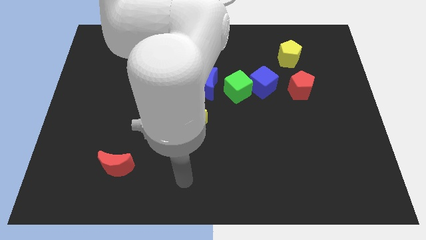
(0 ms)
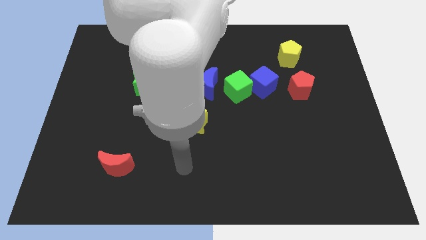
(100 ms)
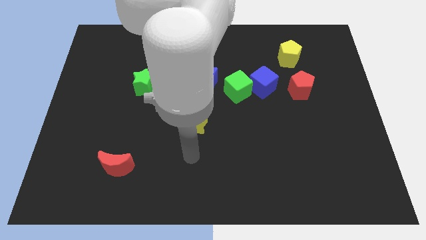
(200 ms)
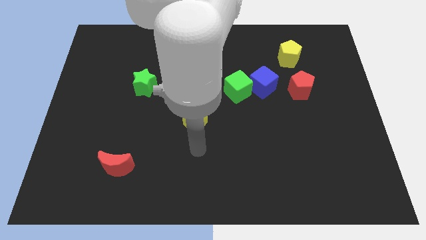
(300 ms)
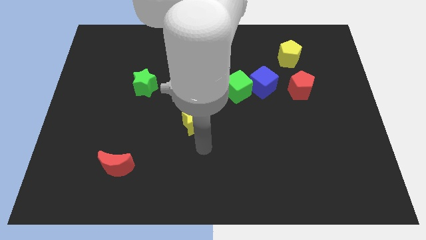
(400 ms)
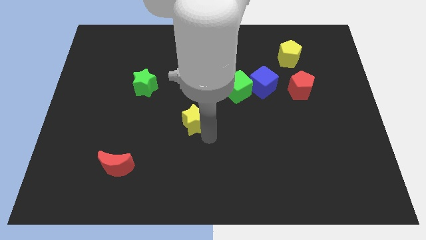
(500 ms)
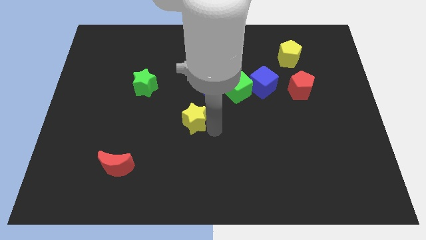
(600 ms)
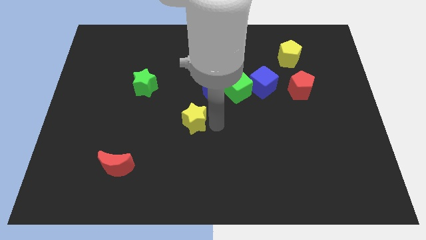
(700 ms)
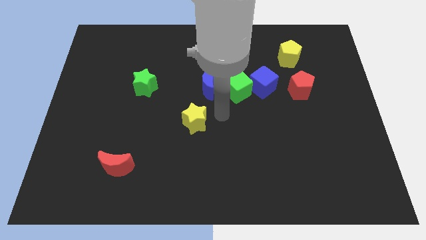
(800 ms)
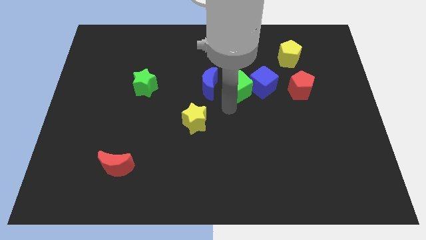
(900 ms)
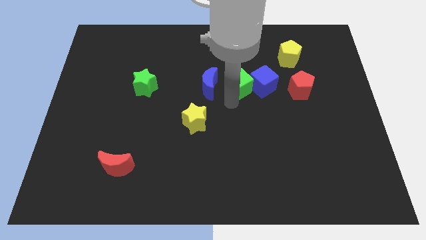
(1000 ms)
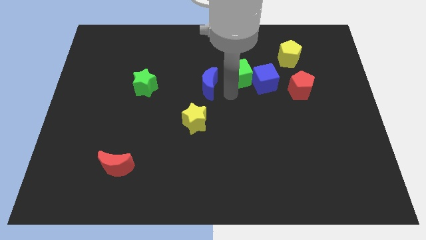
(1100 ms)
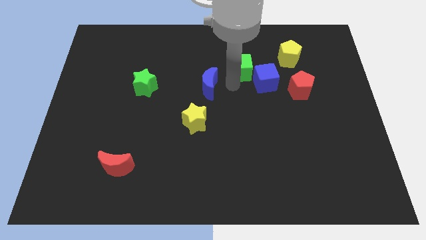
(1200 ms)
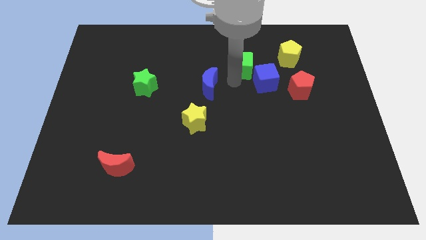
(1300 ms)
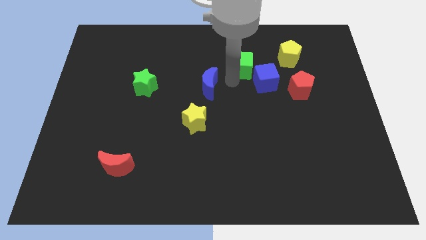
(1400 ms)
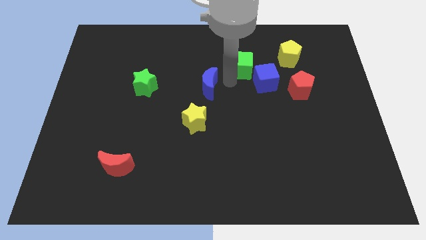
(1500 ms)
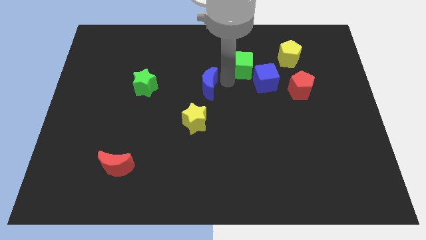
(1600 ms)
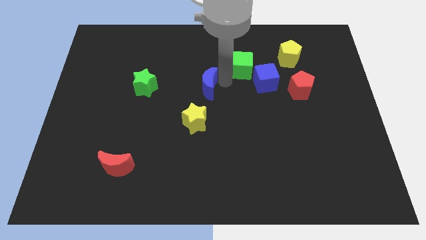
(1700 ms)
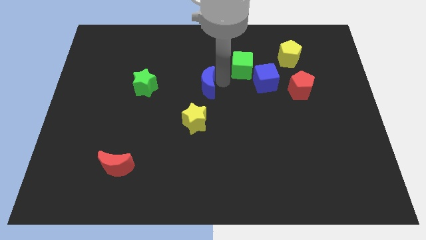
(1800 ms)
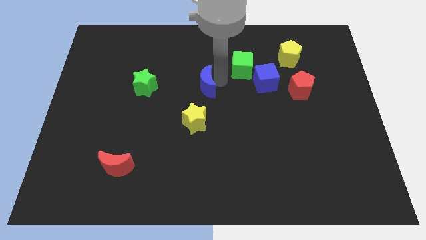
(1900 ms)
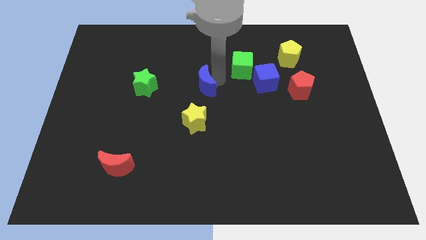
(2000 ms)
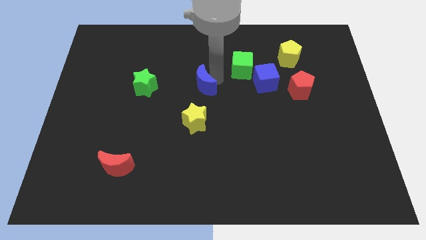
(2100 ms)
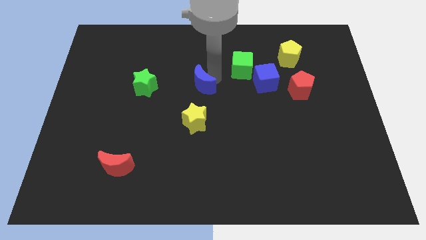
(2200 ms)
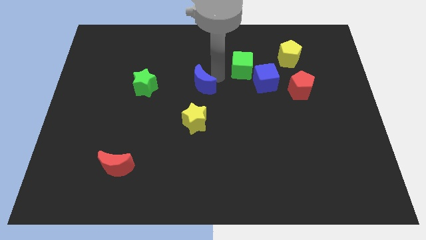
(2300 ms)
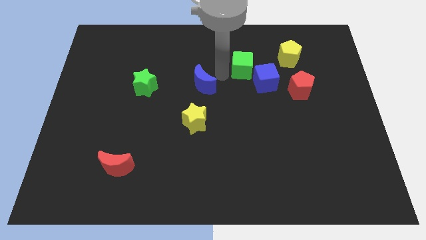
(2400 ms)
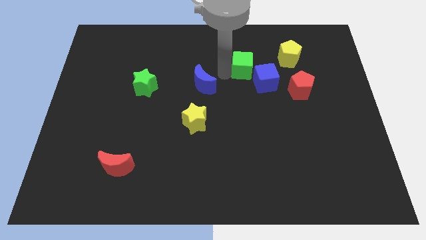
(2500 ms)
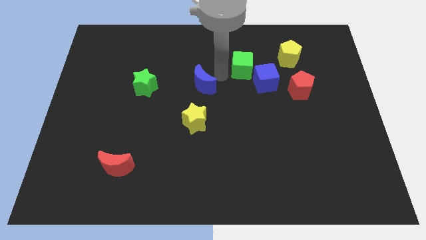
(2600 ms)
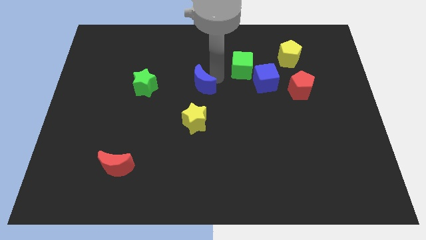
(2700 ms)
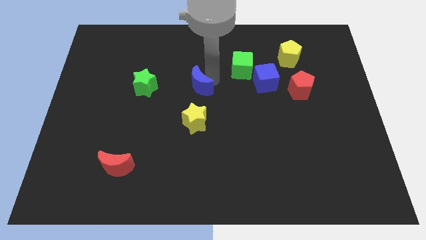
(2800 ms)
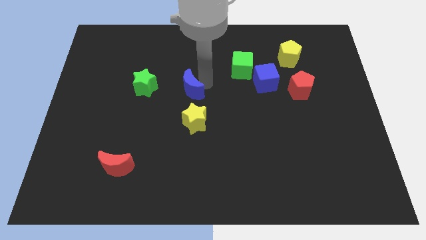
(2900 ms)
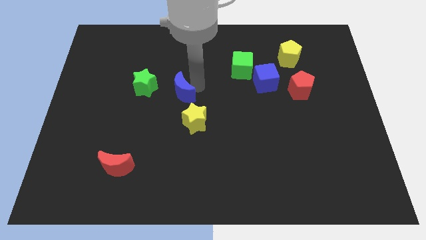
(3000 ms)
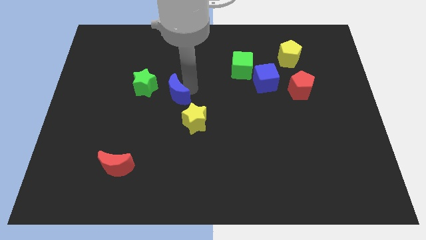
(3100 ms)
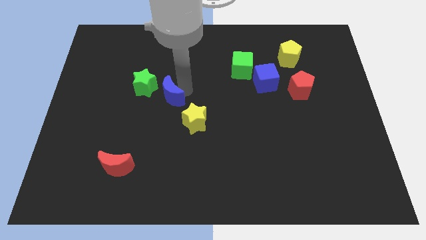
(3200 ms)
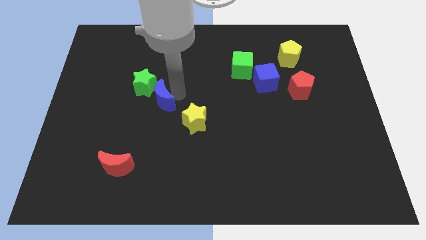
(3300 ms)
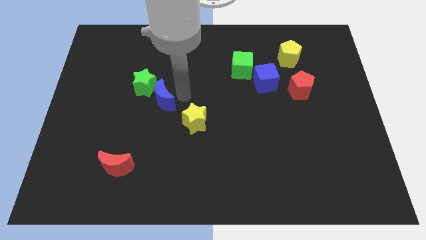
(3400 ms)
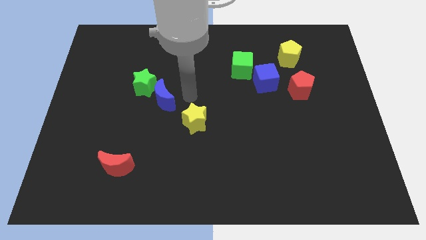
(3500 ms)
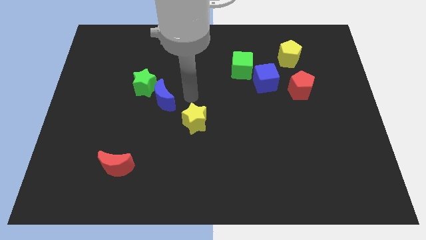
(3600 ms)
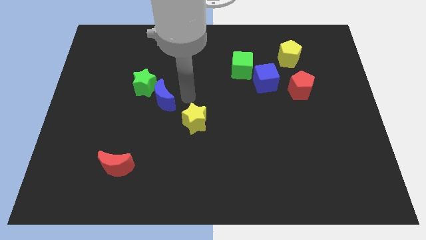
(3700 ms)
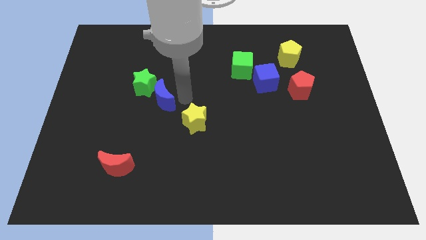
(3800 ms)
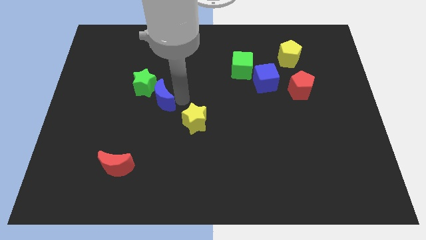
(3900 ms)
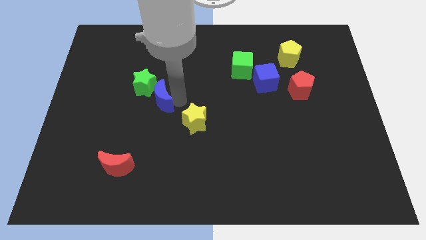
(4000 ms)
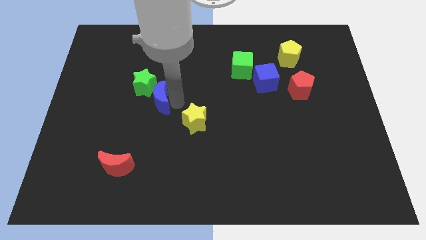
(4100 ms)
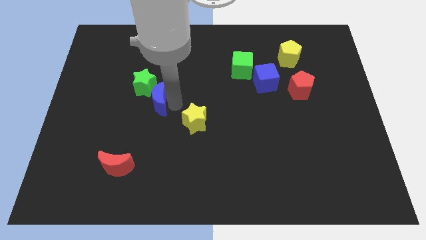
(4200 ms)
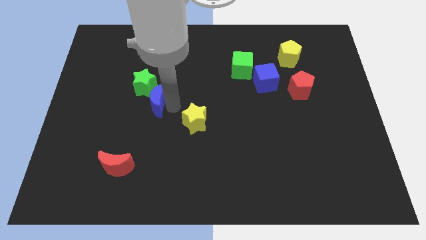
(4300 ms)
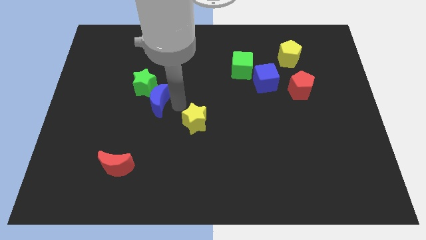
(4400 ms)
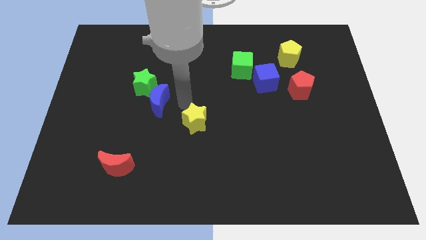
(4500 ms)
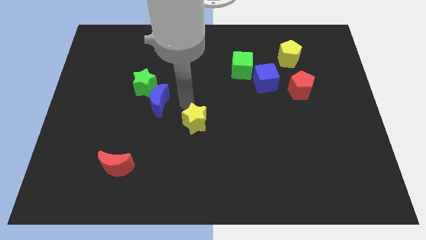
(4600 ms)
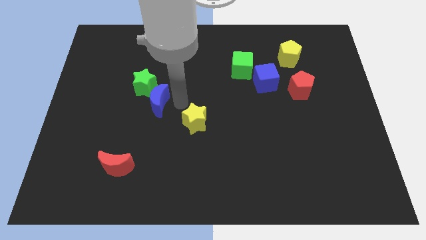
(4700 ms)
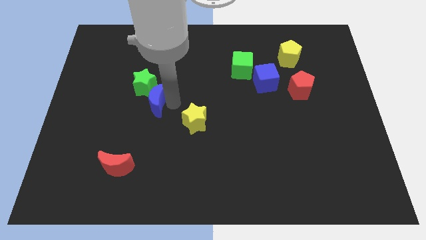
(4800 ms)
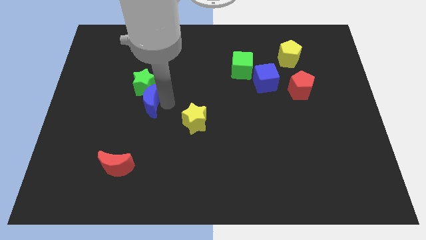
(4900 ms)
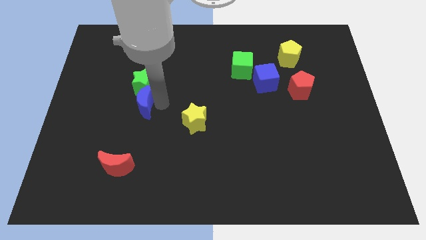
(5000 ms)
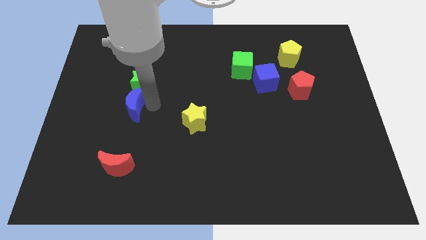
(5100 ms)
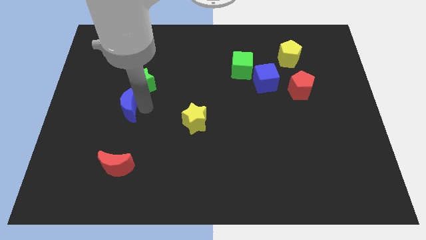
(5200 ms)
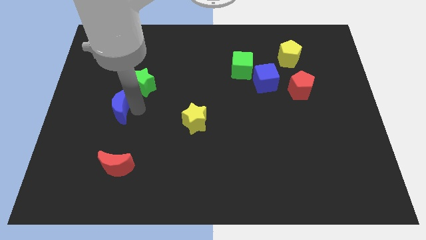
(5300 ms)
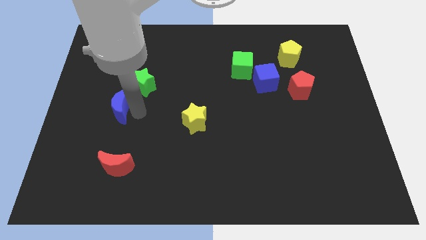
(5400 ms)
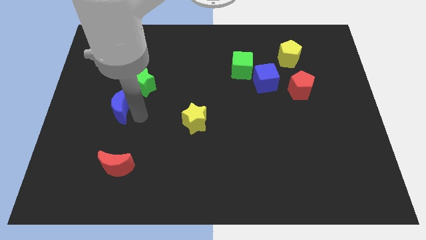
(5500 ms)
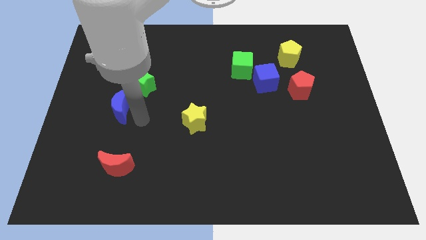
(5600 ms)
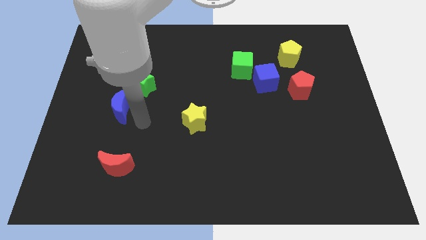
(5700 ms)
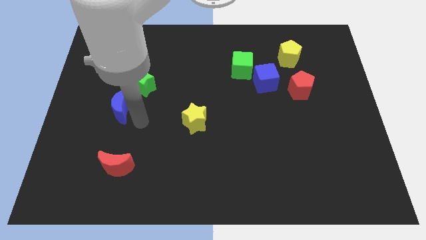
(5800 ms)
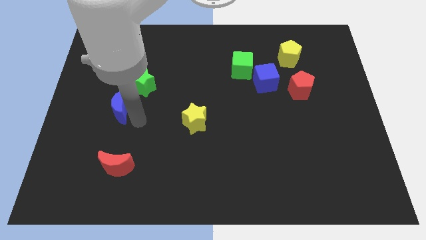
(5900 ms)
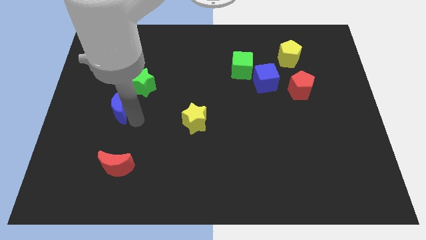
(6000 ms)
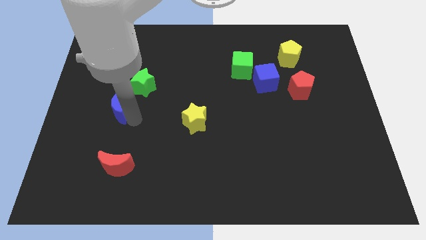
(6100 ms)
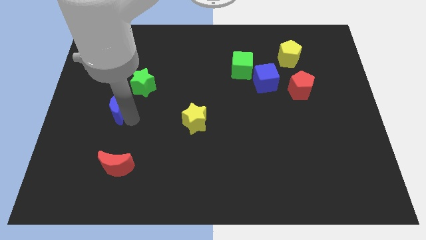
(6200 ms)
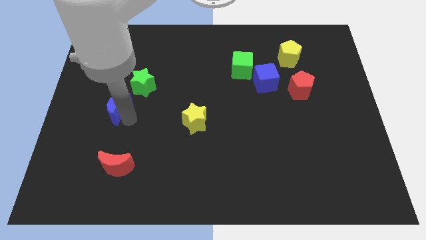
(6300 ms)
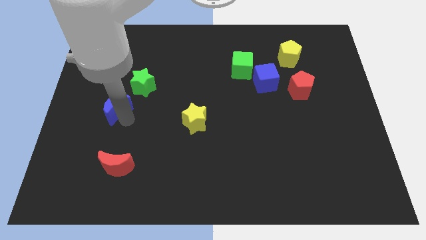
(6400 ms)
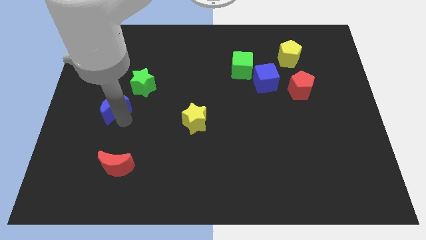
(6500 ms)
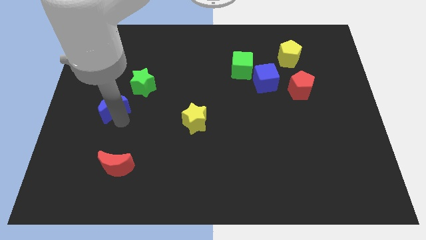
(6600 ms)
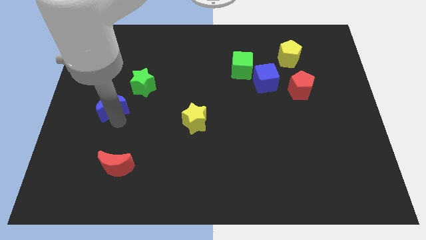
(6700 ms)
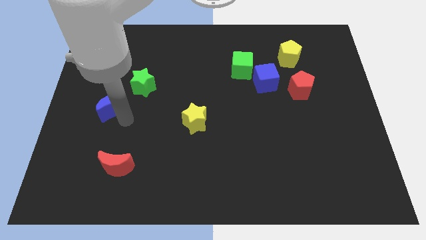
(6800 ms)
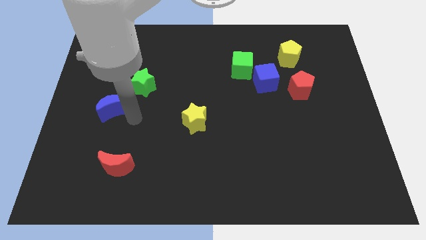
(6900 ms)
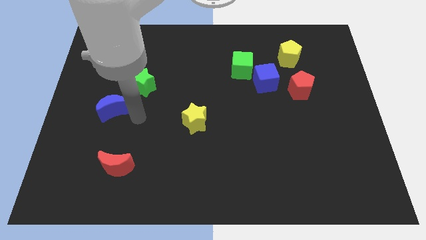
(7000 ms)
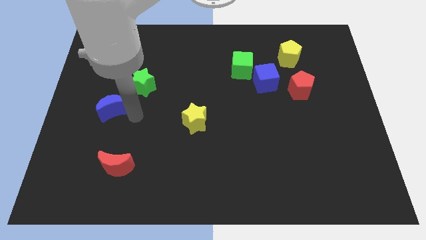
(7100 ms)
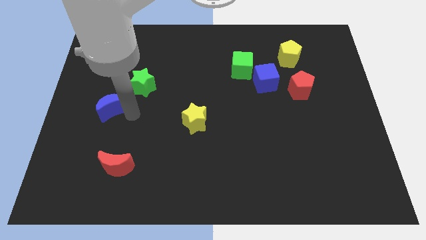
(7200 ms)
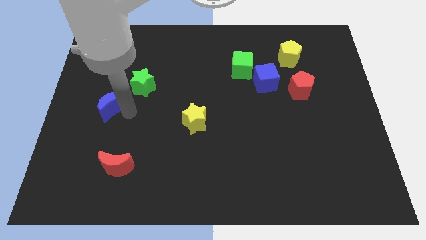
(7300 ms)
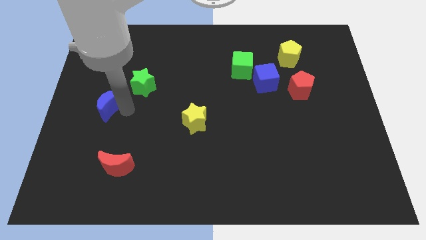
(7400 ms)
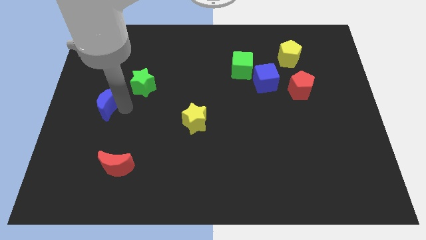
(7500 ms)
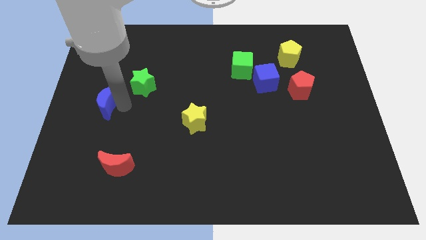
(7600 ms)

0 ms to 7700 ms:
move the blue moon to the left side
